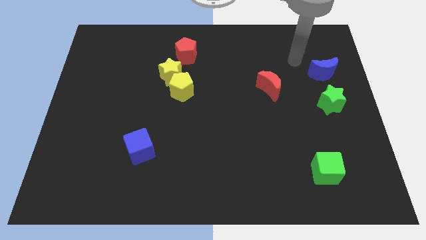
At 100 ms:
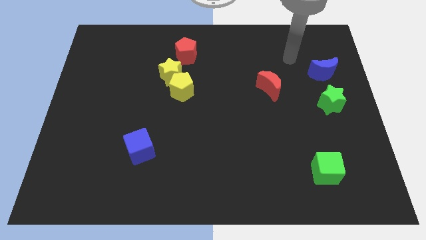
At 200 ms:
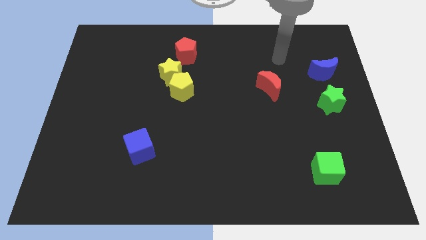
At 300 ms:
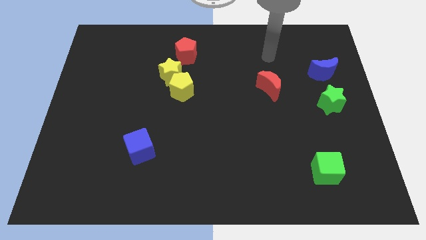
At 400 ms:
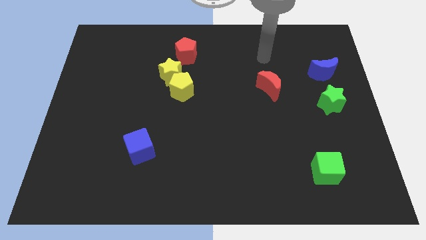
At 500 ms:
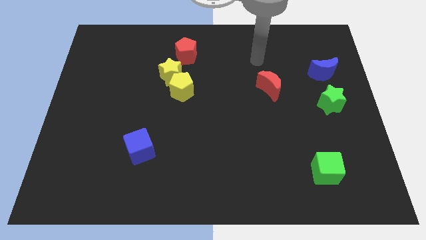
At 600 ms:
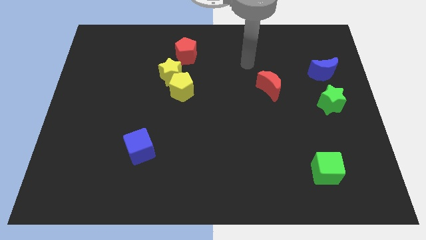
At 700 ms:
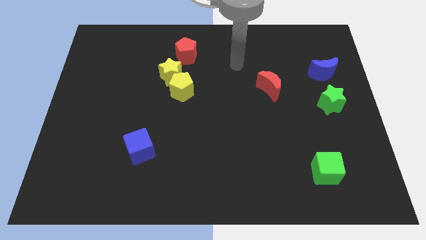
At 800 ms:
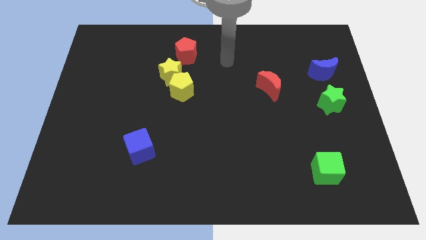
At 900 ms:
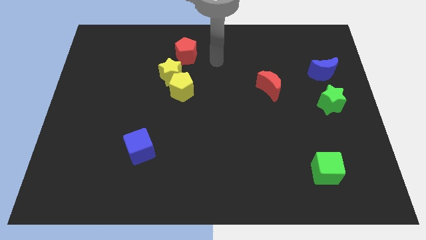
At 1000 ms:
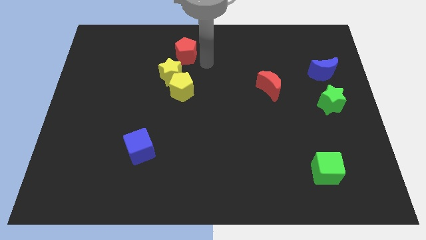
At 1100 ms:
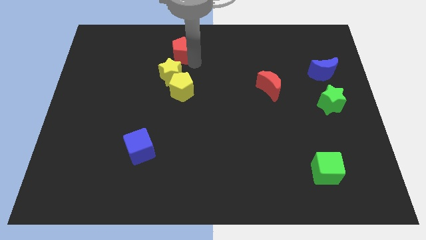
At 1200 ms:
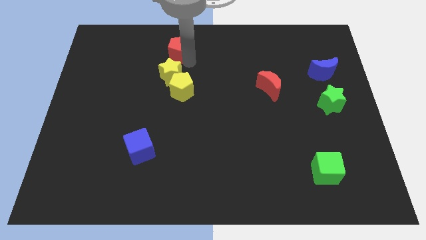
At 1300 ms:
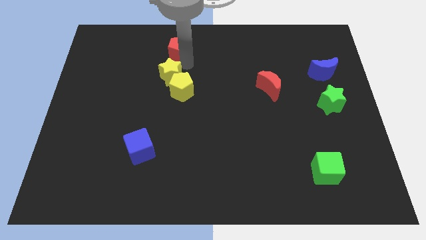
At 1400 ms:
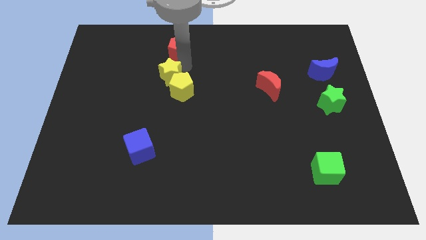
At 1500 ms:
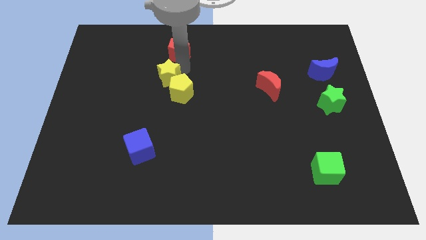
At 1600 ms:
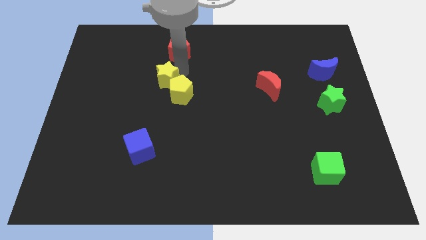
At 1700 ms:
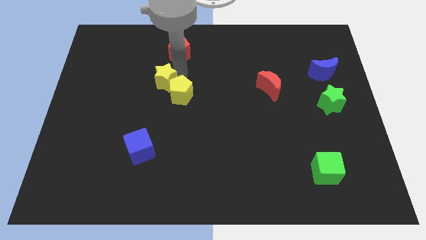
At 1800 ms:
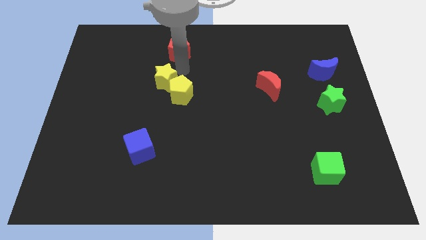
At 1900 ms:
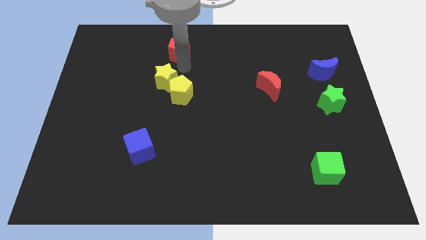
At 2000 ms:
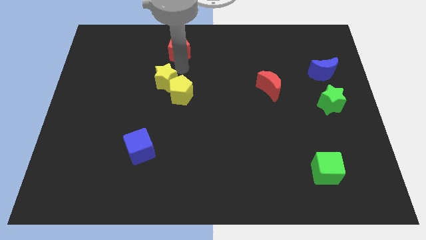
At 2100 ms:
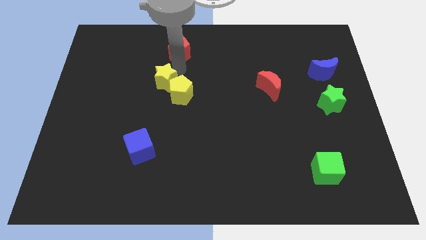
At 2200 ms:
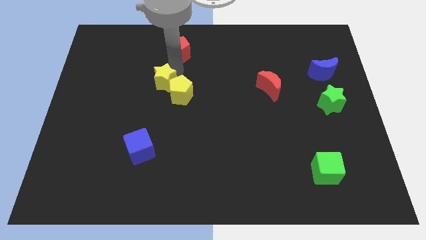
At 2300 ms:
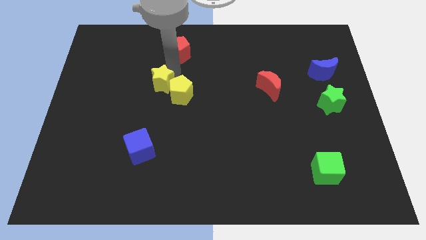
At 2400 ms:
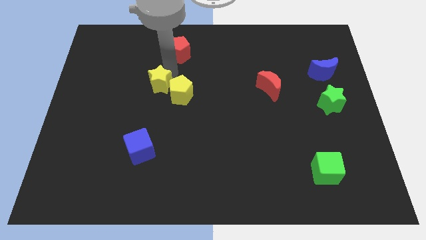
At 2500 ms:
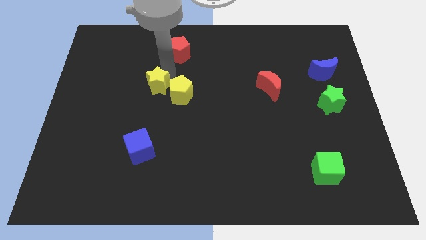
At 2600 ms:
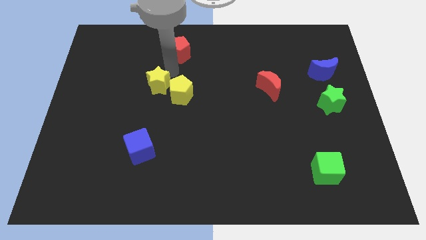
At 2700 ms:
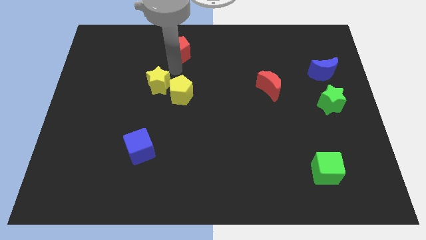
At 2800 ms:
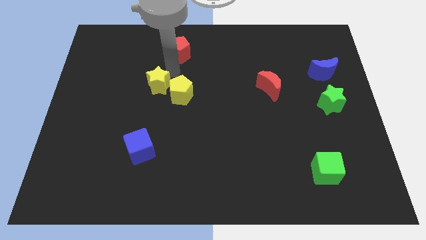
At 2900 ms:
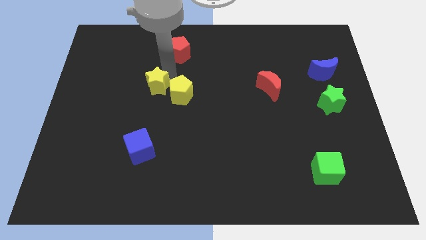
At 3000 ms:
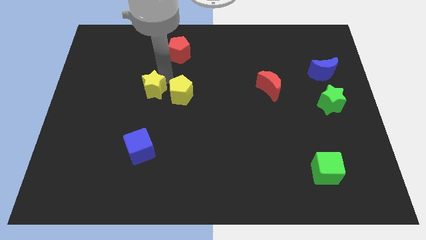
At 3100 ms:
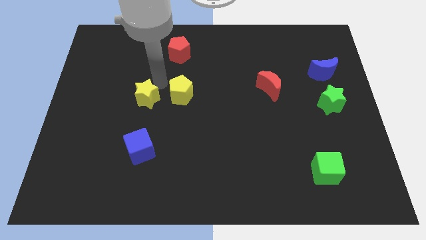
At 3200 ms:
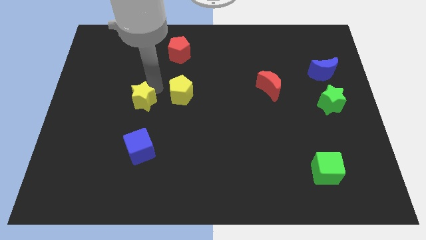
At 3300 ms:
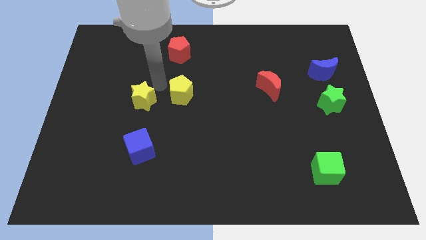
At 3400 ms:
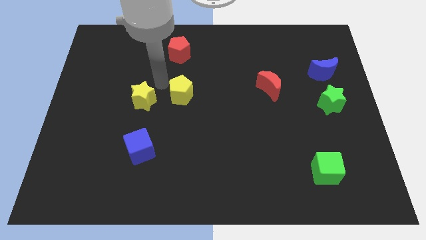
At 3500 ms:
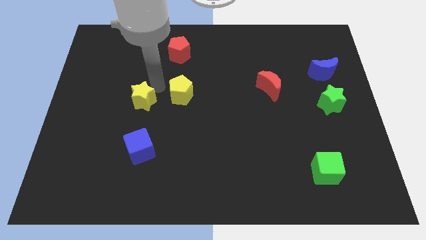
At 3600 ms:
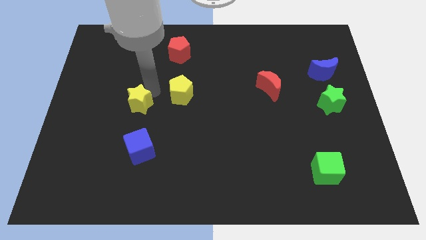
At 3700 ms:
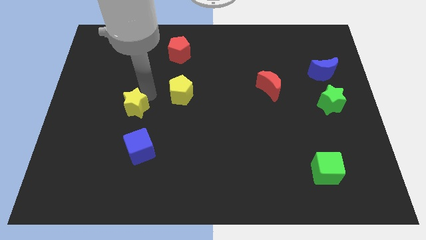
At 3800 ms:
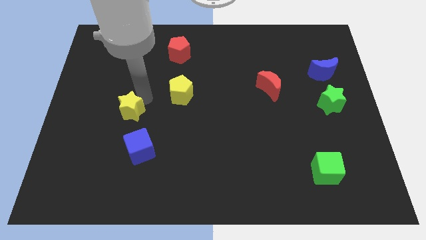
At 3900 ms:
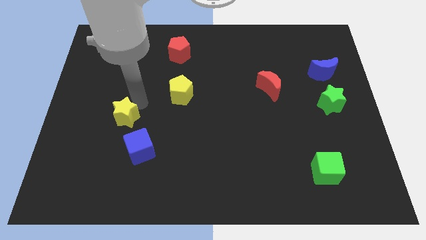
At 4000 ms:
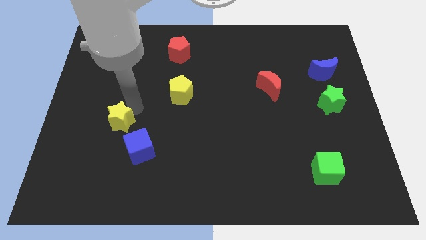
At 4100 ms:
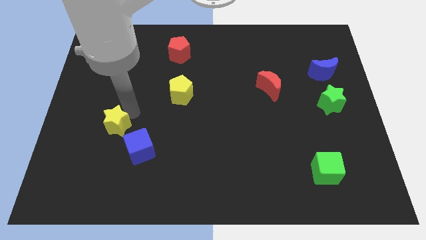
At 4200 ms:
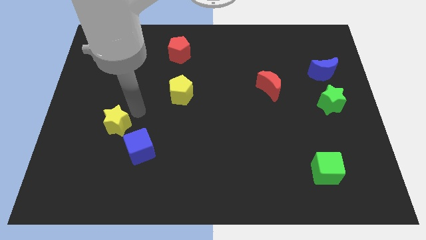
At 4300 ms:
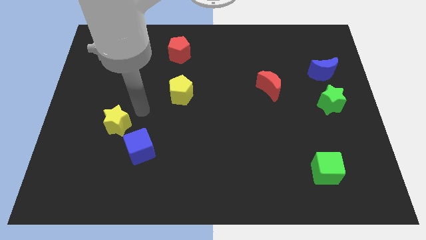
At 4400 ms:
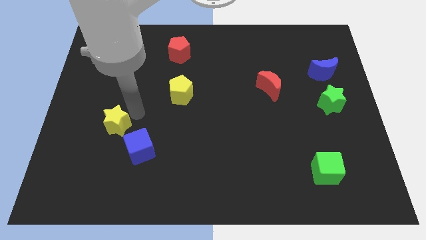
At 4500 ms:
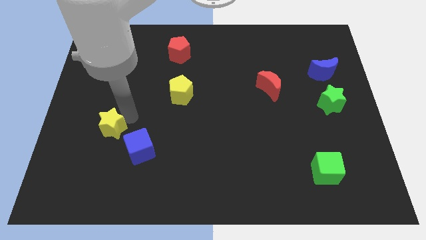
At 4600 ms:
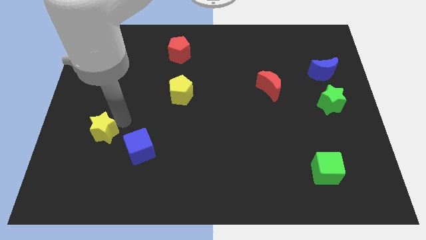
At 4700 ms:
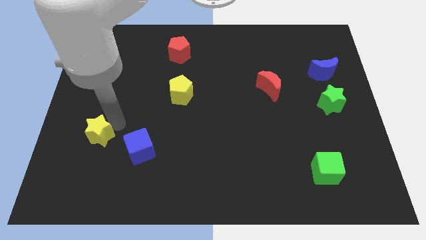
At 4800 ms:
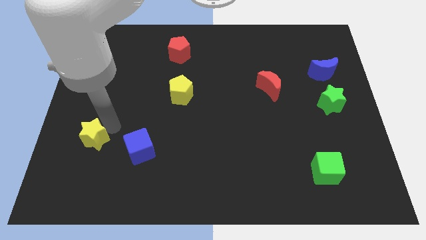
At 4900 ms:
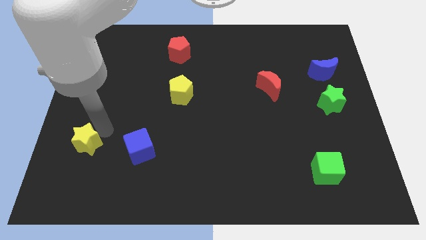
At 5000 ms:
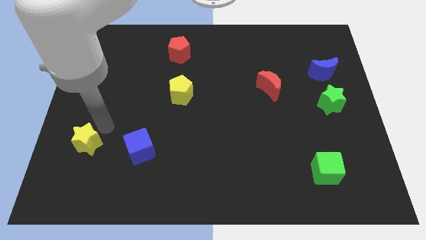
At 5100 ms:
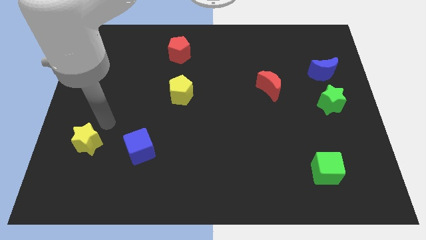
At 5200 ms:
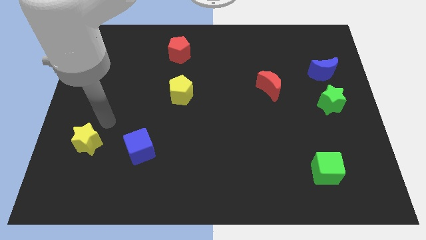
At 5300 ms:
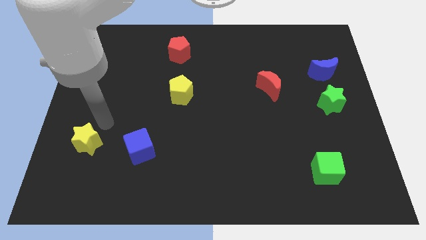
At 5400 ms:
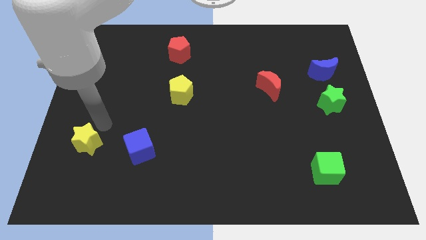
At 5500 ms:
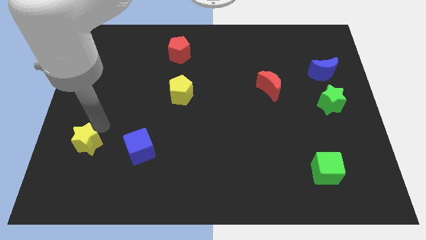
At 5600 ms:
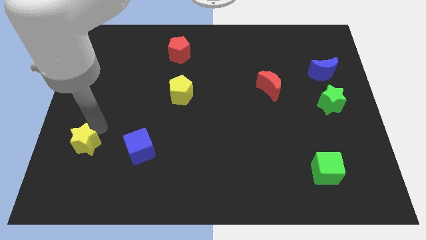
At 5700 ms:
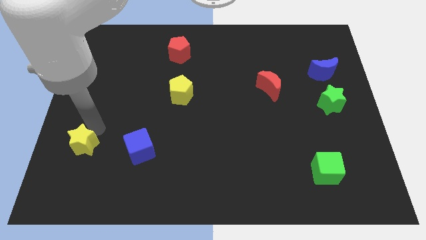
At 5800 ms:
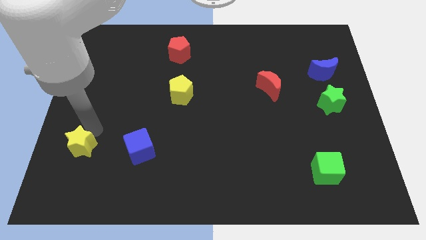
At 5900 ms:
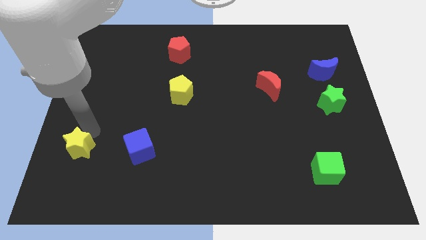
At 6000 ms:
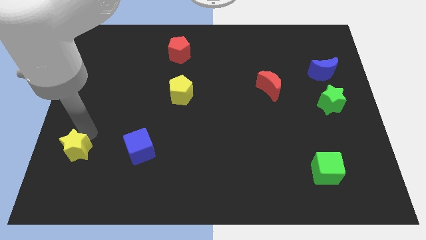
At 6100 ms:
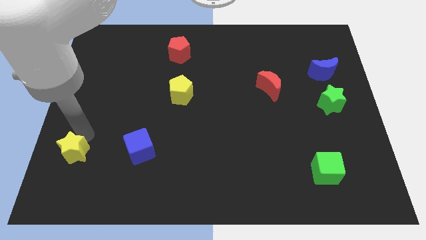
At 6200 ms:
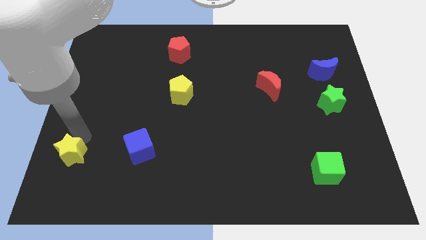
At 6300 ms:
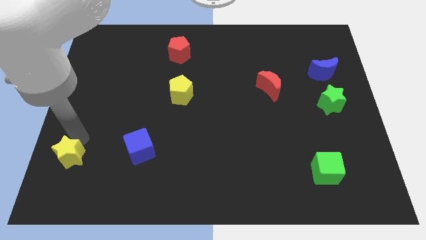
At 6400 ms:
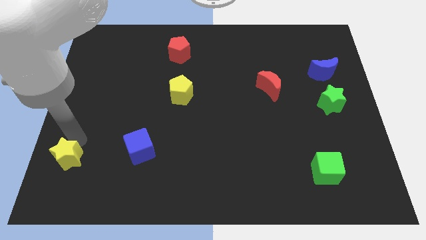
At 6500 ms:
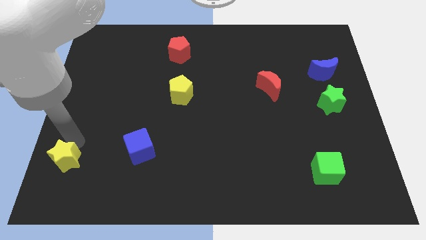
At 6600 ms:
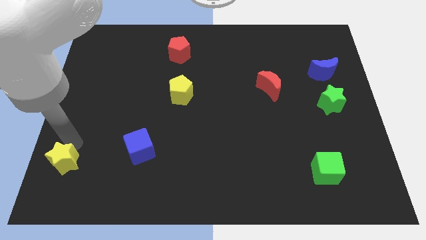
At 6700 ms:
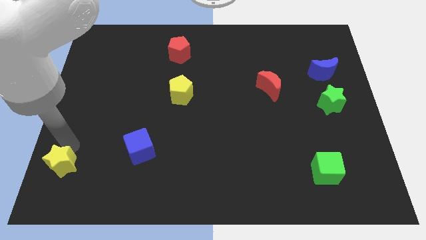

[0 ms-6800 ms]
move the yellow star to the lower left corner
